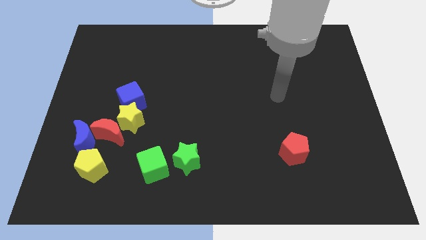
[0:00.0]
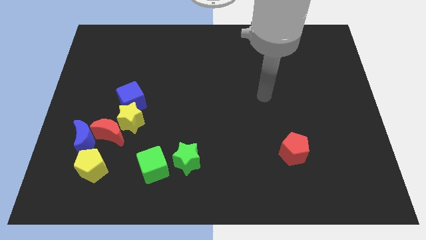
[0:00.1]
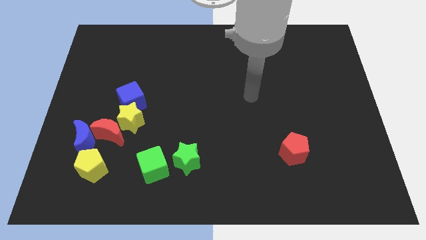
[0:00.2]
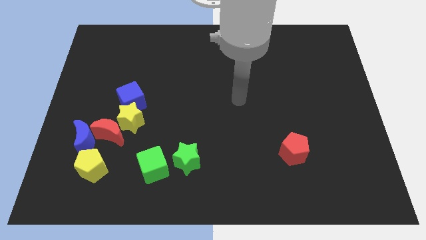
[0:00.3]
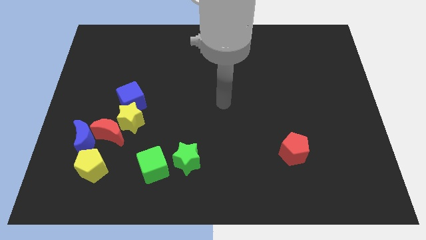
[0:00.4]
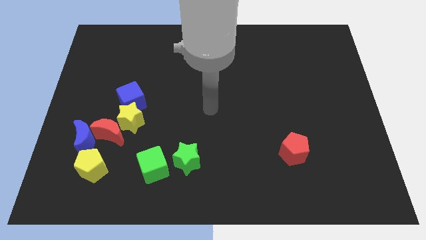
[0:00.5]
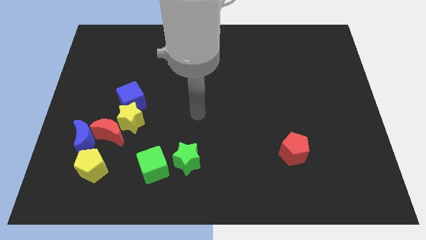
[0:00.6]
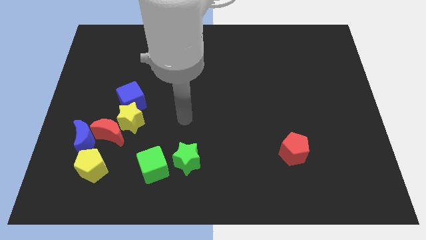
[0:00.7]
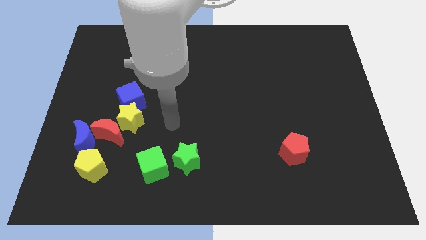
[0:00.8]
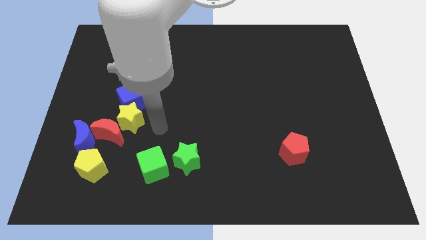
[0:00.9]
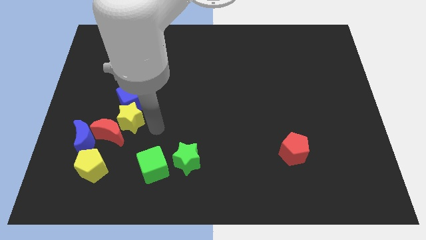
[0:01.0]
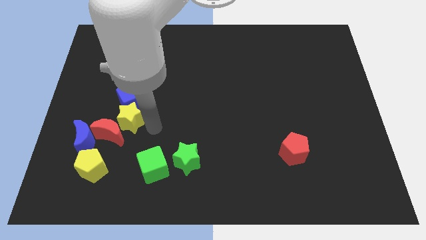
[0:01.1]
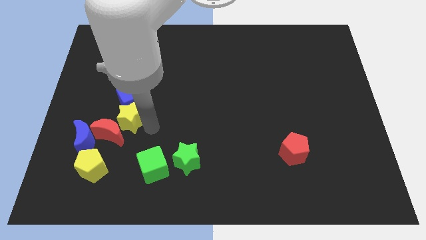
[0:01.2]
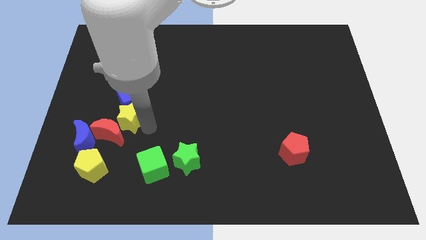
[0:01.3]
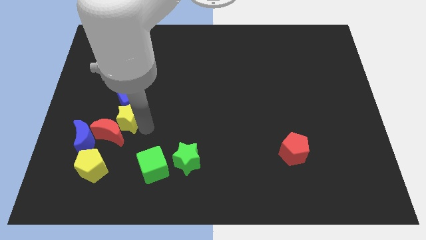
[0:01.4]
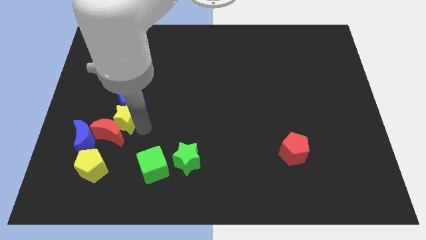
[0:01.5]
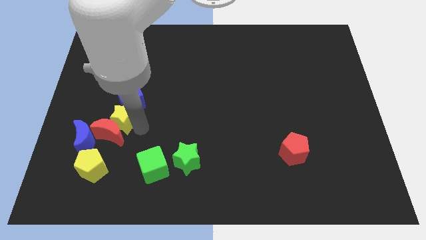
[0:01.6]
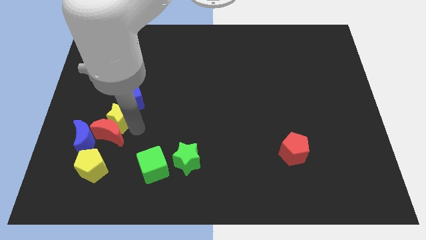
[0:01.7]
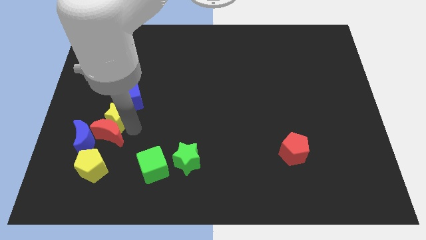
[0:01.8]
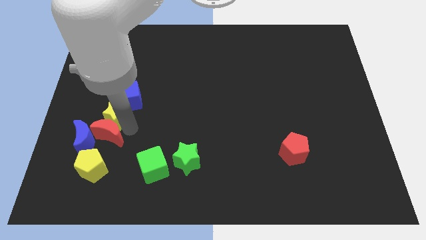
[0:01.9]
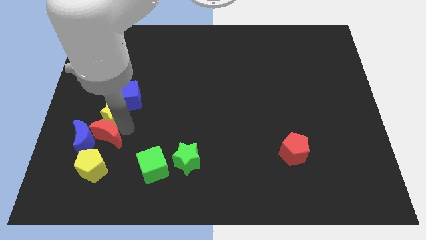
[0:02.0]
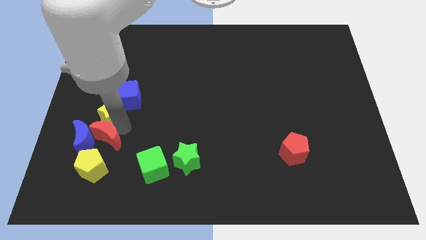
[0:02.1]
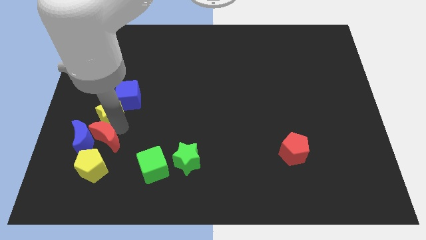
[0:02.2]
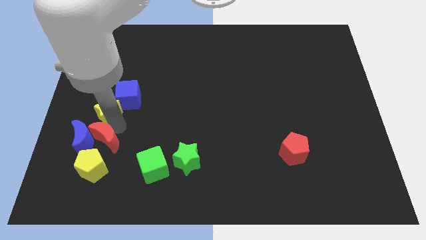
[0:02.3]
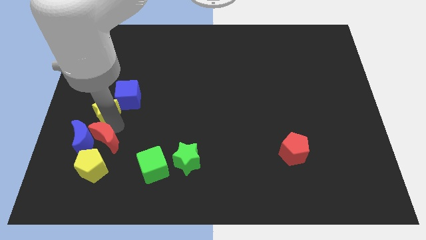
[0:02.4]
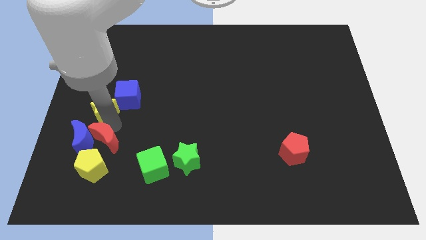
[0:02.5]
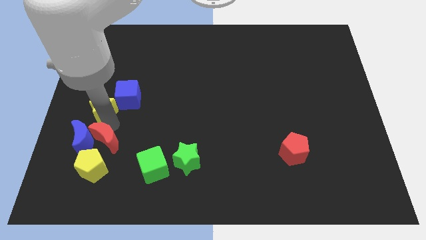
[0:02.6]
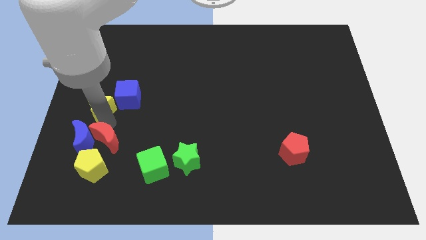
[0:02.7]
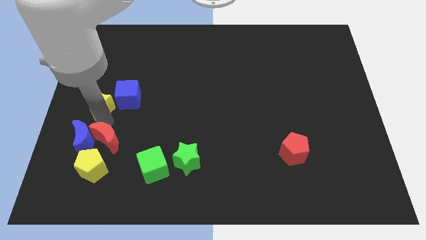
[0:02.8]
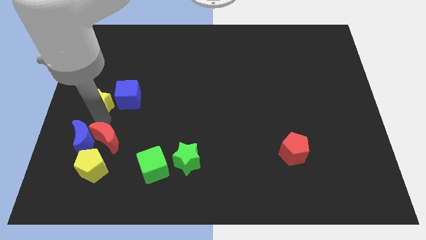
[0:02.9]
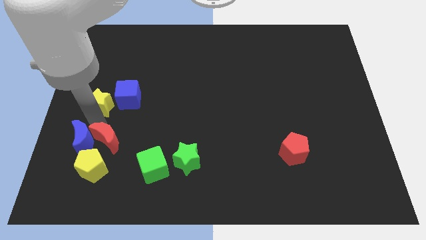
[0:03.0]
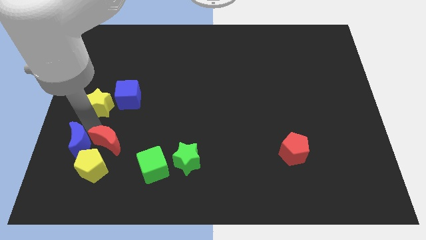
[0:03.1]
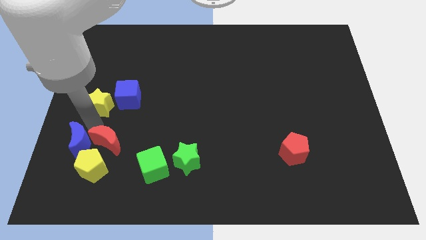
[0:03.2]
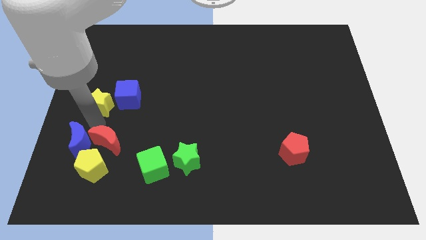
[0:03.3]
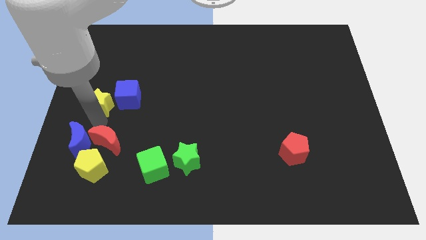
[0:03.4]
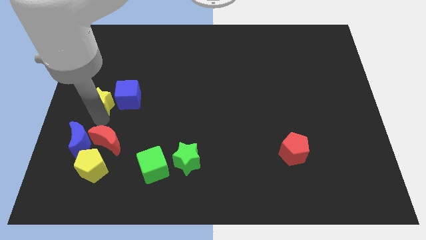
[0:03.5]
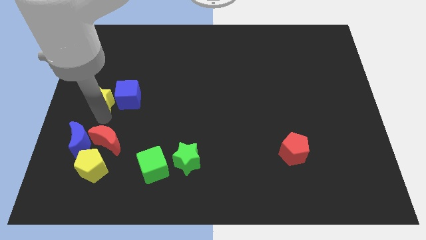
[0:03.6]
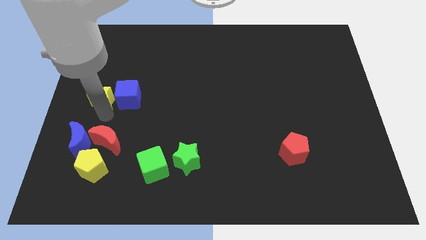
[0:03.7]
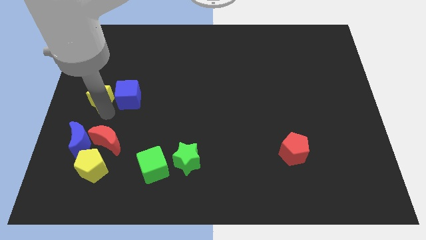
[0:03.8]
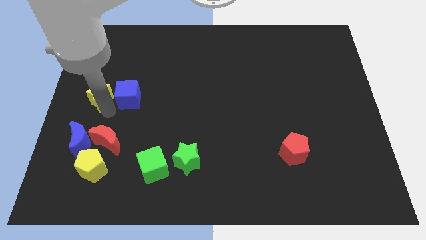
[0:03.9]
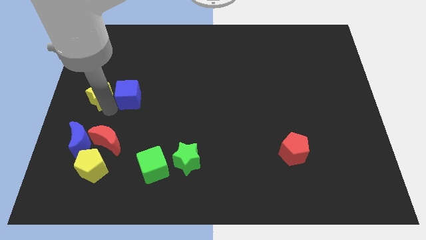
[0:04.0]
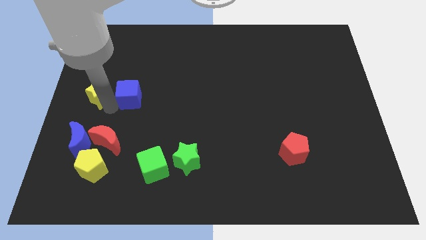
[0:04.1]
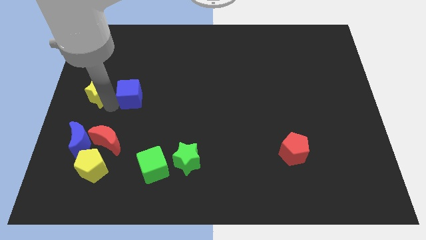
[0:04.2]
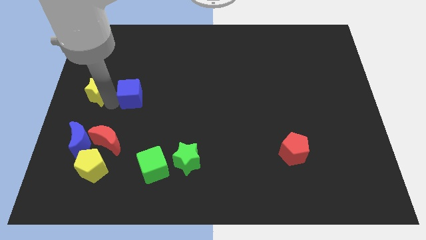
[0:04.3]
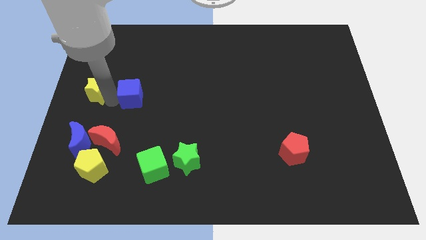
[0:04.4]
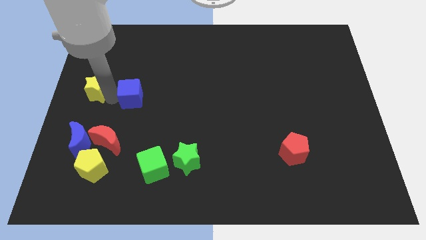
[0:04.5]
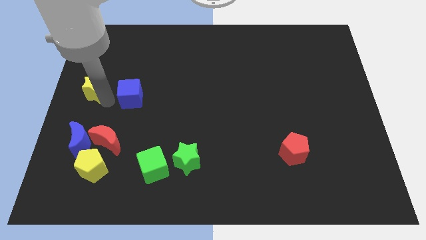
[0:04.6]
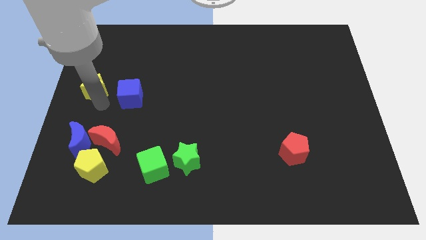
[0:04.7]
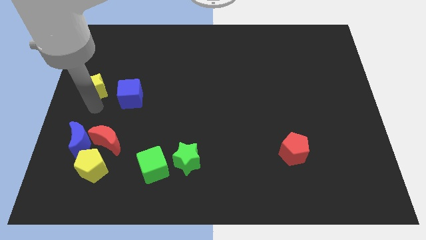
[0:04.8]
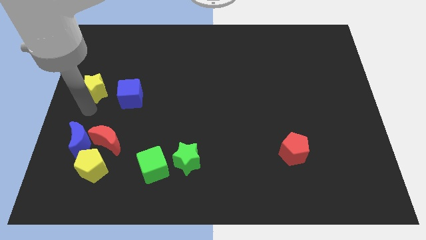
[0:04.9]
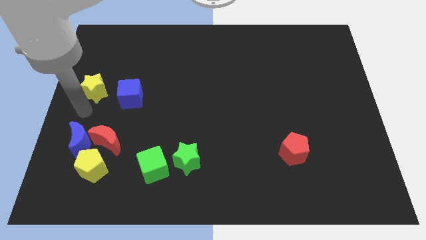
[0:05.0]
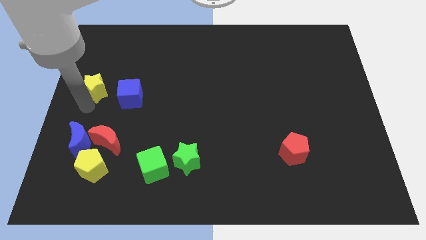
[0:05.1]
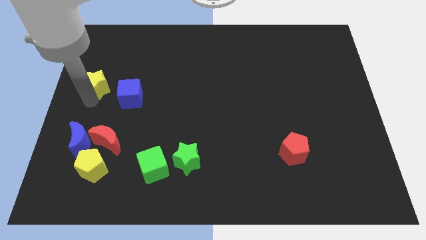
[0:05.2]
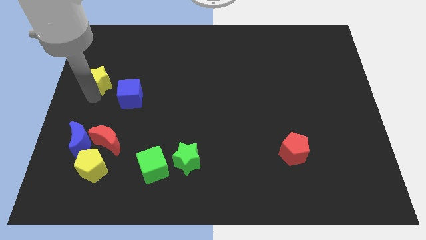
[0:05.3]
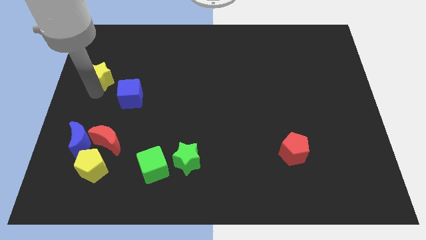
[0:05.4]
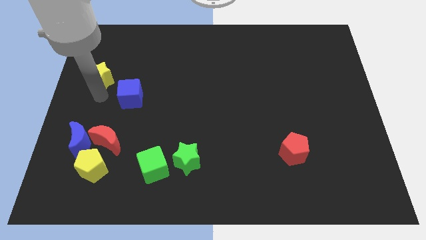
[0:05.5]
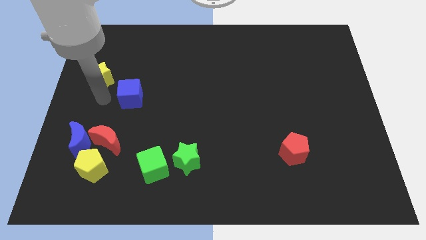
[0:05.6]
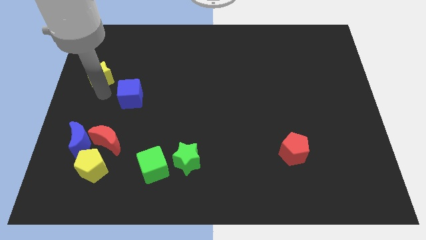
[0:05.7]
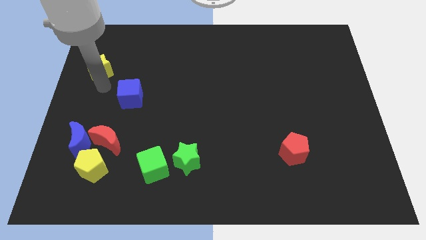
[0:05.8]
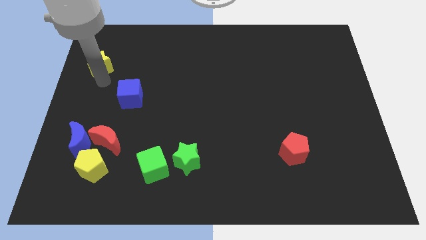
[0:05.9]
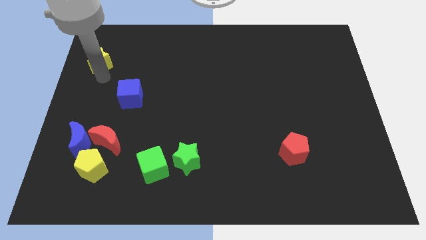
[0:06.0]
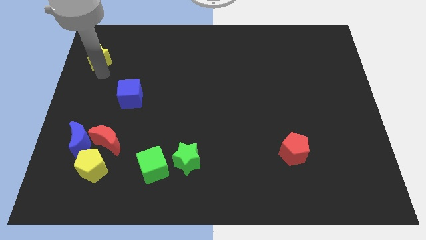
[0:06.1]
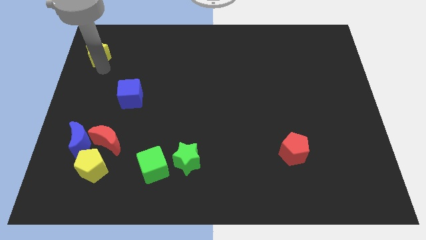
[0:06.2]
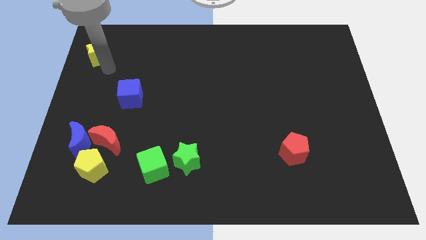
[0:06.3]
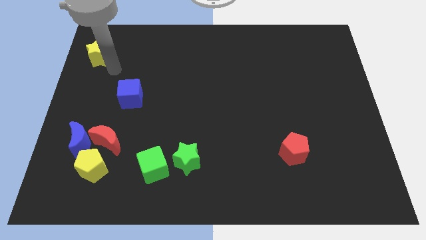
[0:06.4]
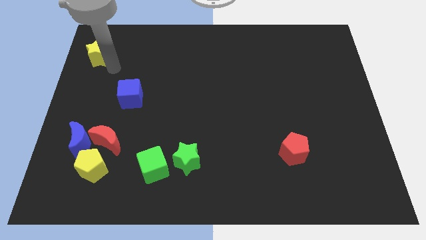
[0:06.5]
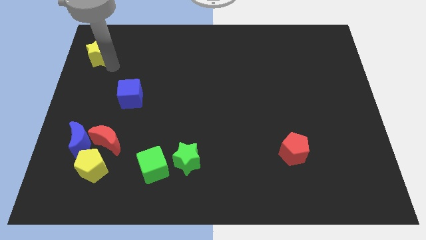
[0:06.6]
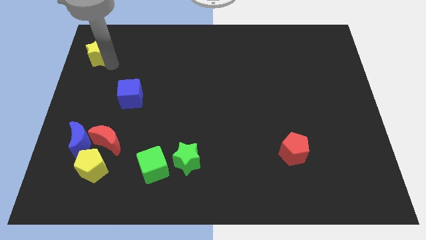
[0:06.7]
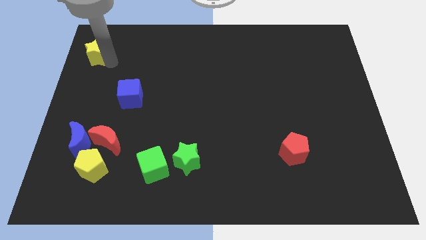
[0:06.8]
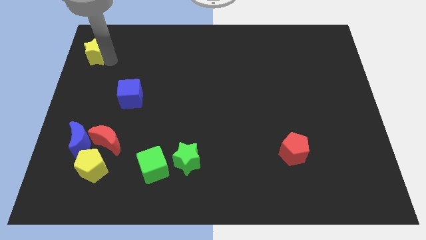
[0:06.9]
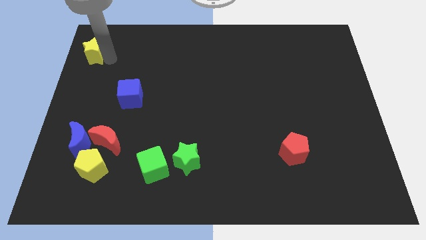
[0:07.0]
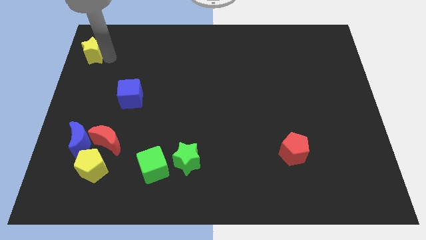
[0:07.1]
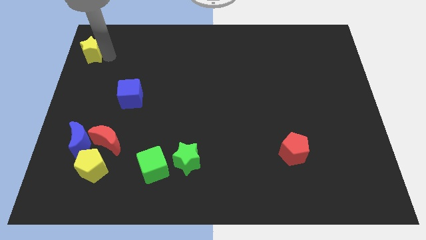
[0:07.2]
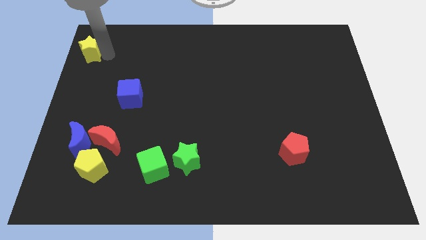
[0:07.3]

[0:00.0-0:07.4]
slide the yellow star to the top left
